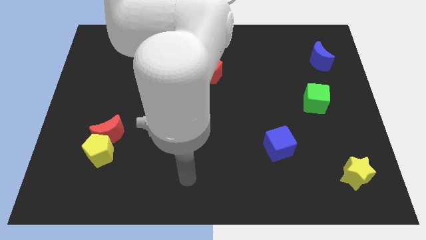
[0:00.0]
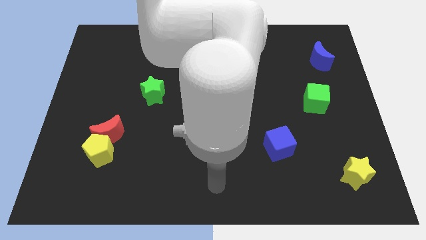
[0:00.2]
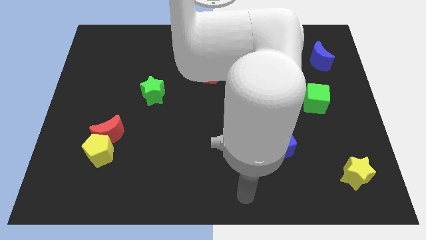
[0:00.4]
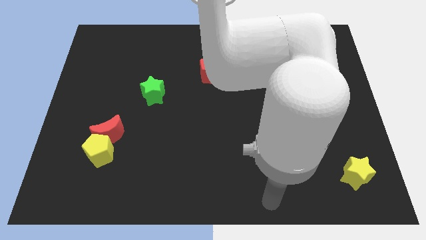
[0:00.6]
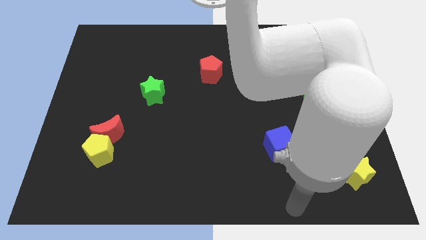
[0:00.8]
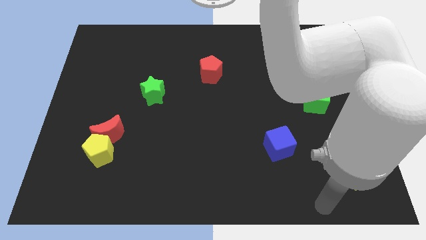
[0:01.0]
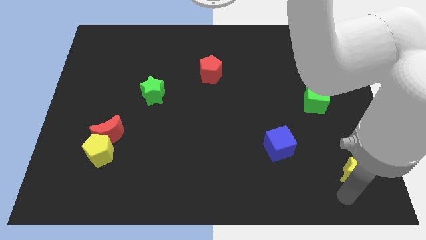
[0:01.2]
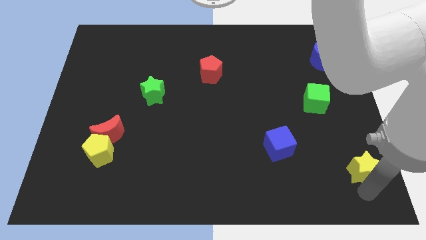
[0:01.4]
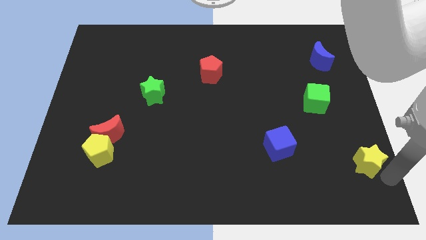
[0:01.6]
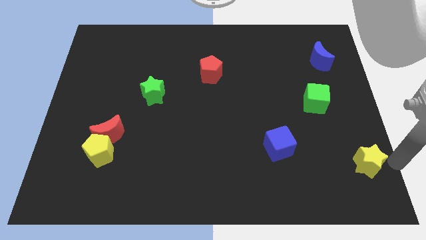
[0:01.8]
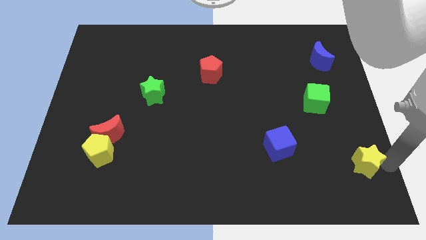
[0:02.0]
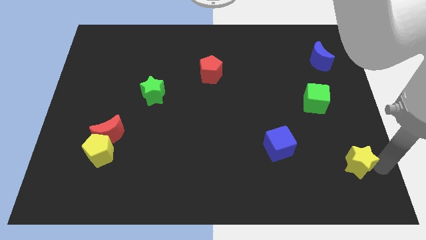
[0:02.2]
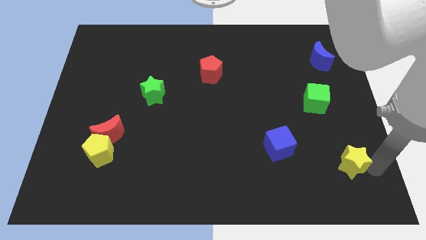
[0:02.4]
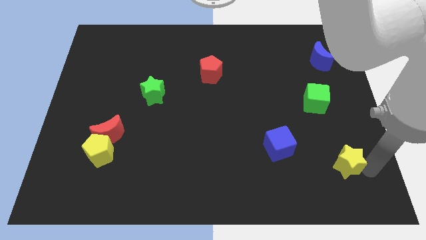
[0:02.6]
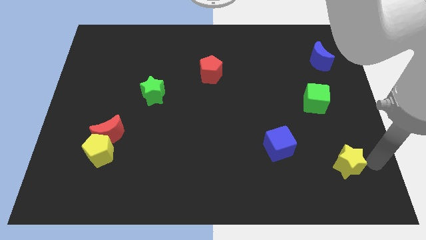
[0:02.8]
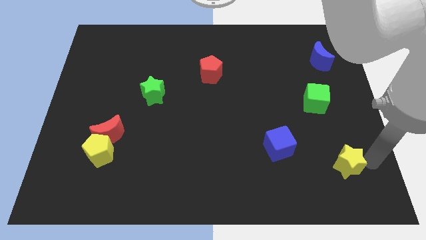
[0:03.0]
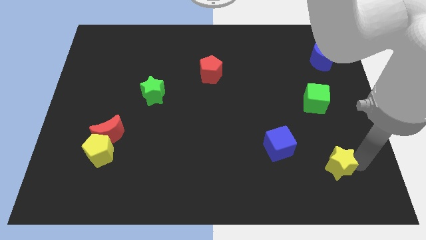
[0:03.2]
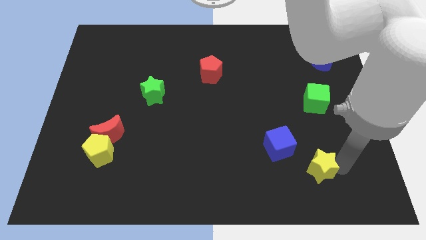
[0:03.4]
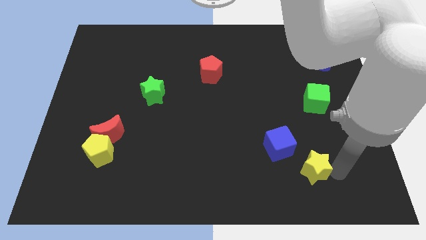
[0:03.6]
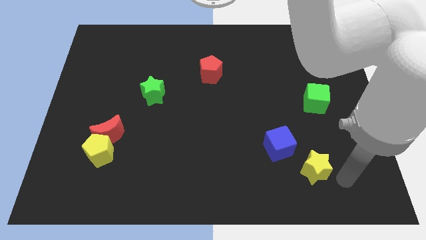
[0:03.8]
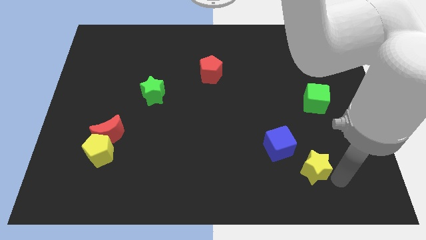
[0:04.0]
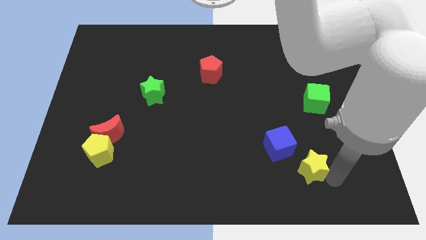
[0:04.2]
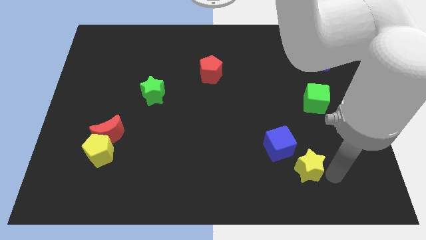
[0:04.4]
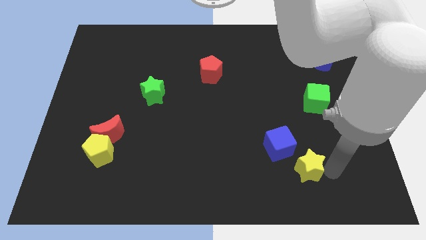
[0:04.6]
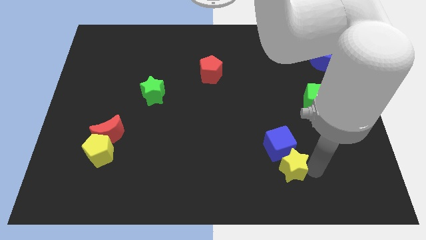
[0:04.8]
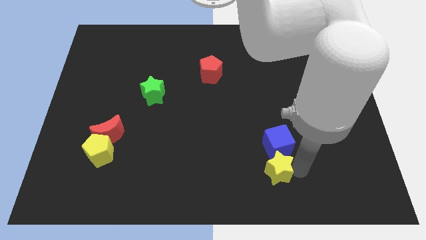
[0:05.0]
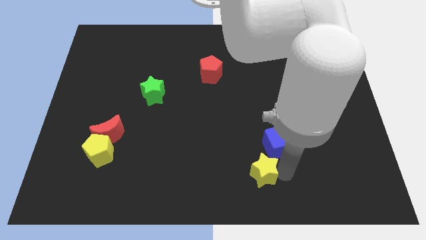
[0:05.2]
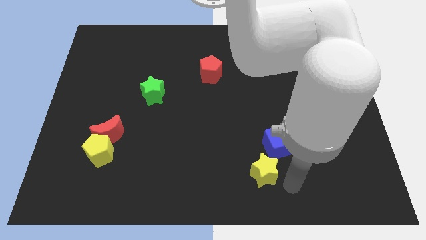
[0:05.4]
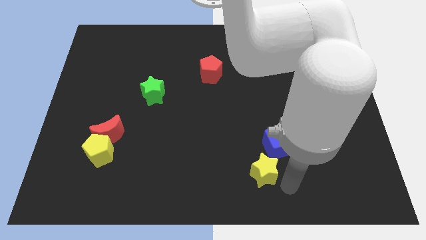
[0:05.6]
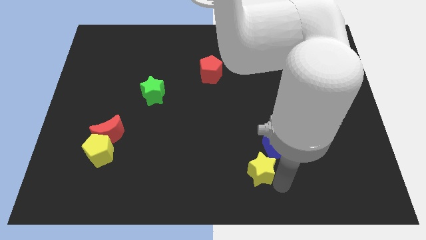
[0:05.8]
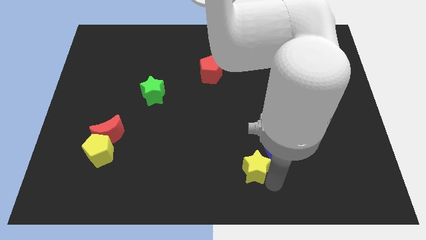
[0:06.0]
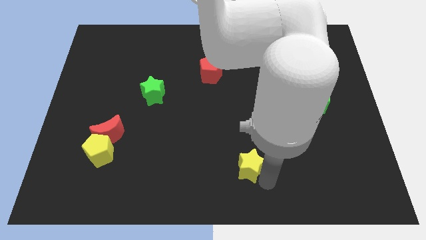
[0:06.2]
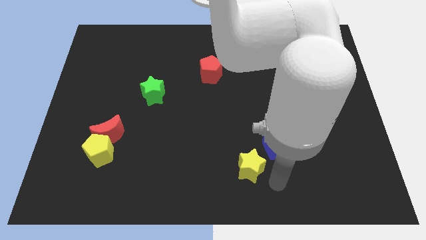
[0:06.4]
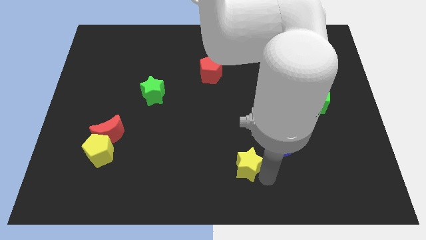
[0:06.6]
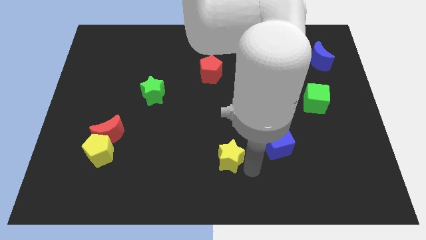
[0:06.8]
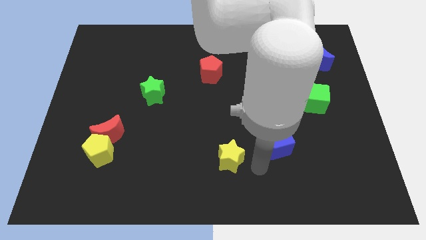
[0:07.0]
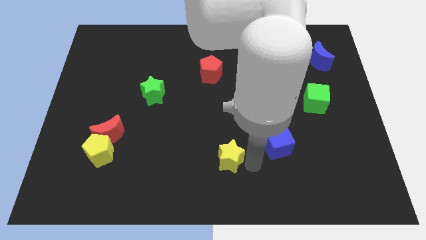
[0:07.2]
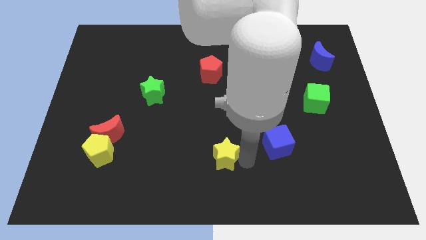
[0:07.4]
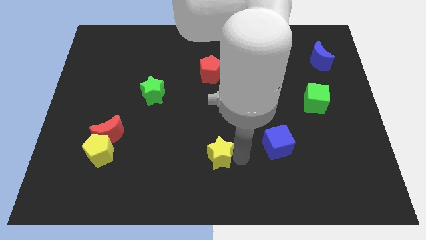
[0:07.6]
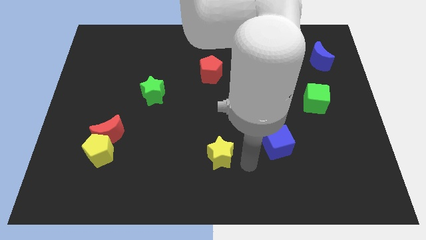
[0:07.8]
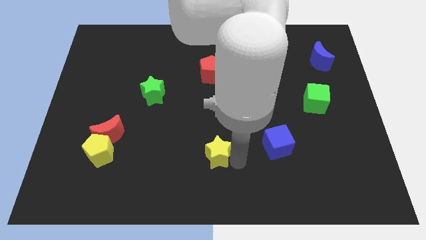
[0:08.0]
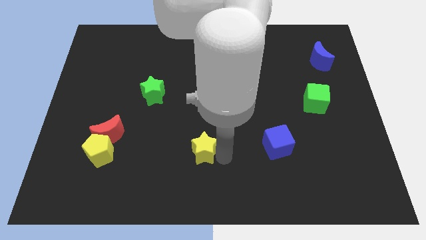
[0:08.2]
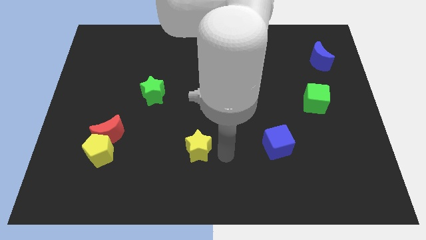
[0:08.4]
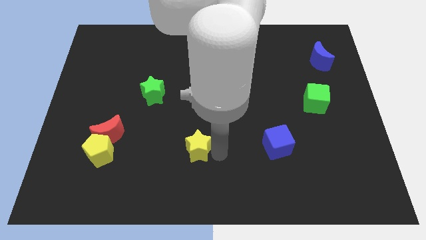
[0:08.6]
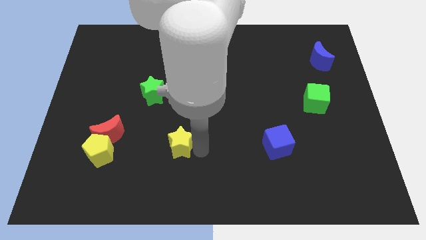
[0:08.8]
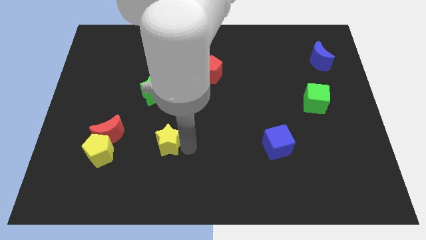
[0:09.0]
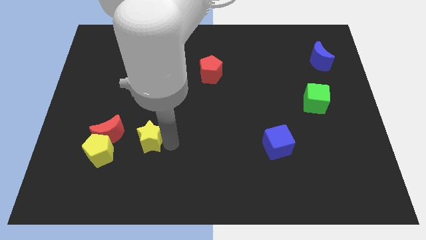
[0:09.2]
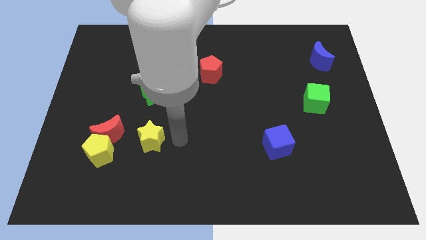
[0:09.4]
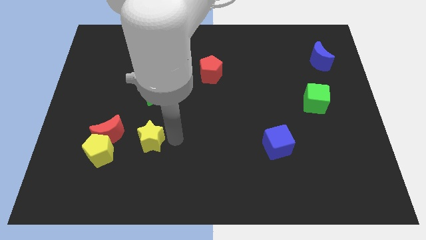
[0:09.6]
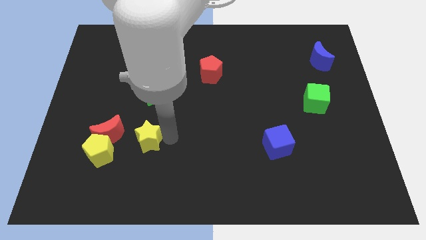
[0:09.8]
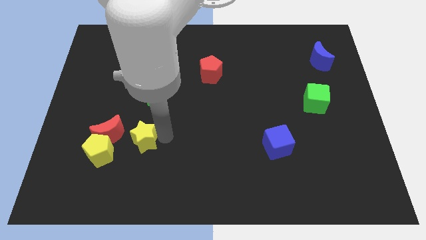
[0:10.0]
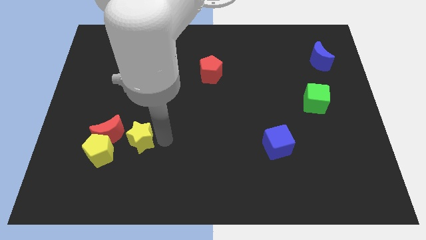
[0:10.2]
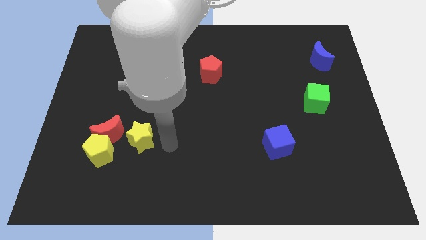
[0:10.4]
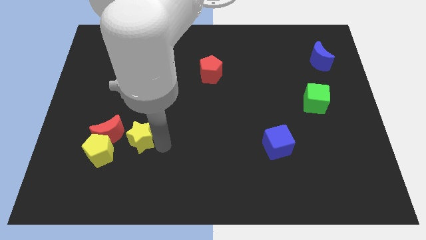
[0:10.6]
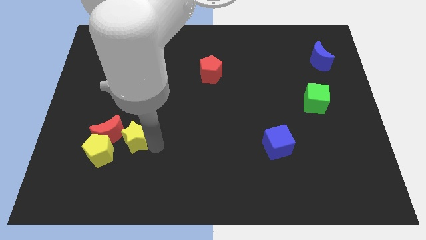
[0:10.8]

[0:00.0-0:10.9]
put the yellow star towards the red moon

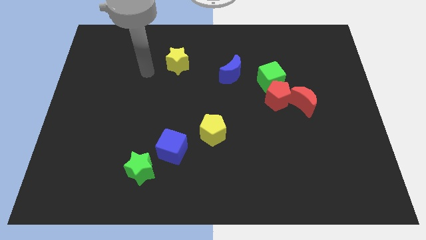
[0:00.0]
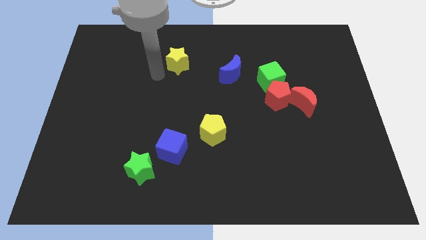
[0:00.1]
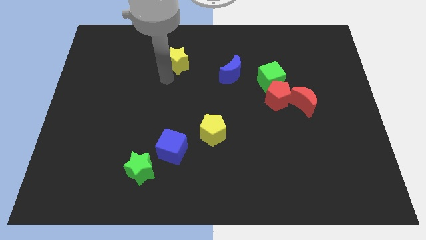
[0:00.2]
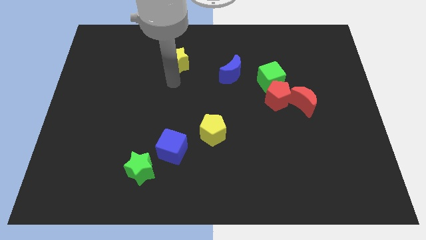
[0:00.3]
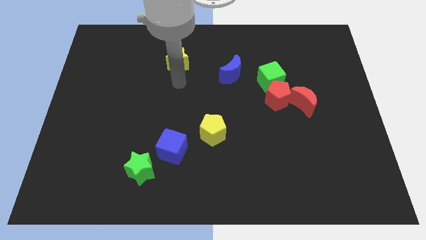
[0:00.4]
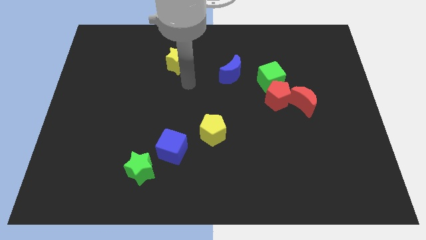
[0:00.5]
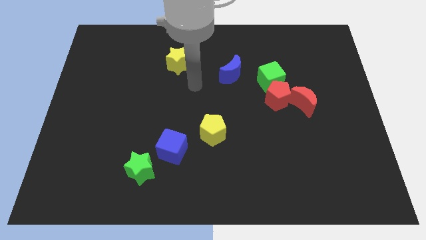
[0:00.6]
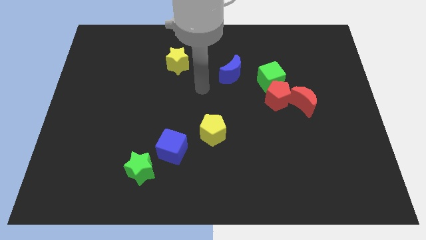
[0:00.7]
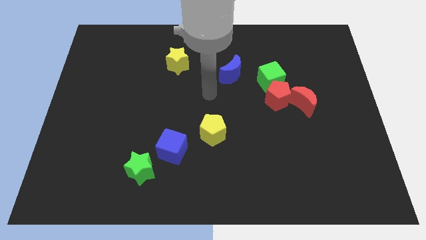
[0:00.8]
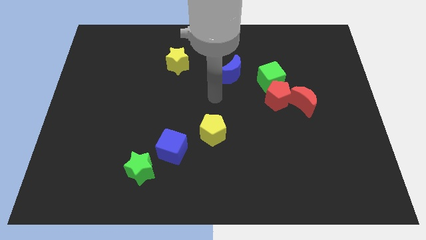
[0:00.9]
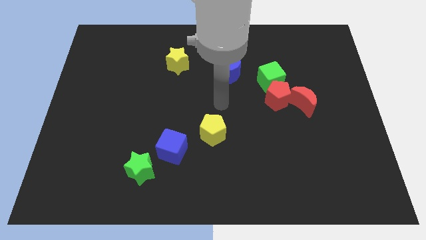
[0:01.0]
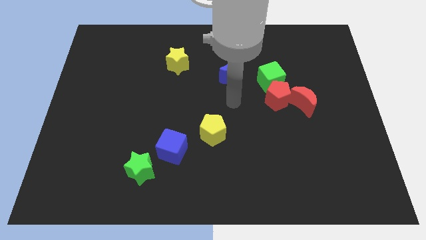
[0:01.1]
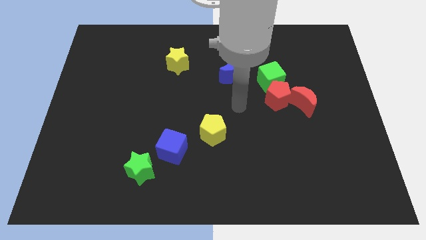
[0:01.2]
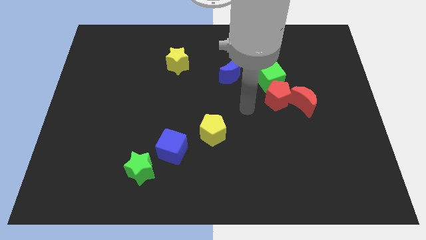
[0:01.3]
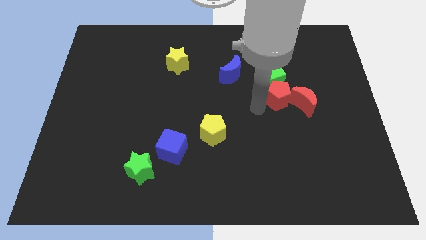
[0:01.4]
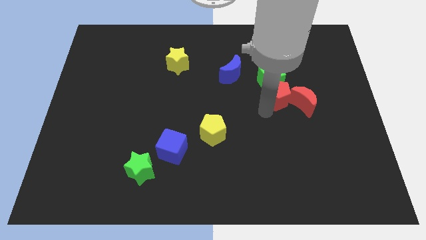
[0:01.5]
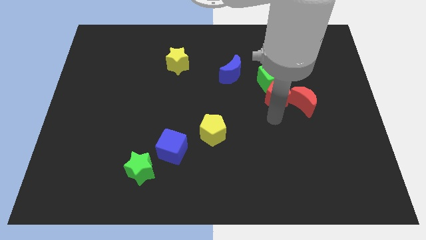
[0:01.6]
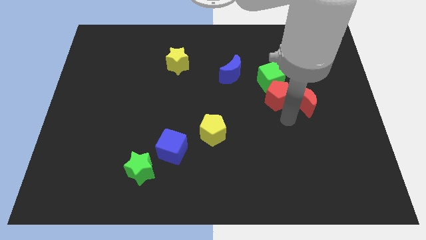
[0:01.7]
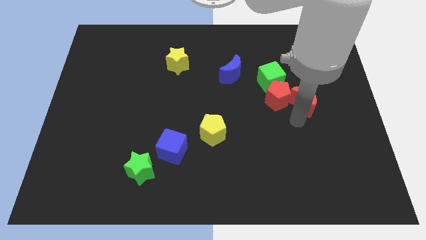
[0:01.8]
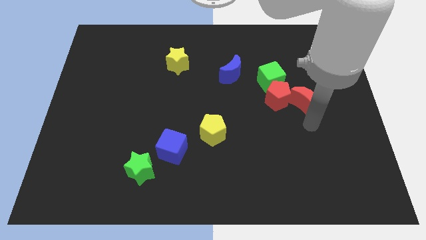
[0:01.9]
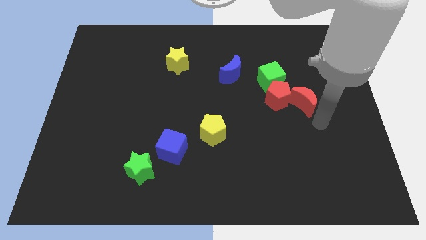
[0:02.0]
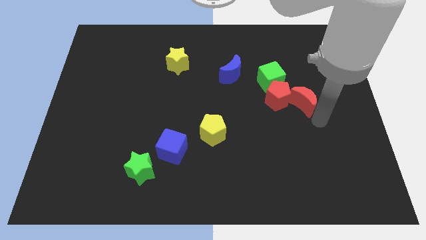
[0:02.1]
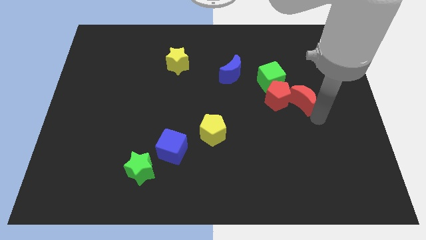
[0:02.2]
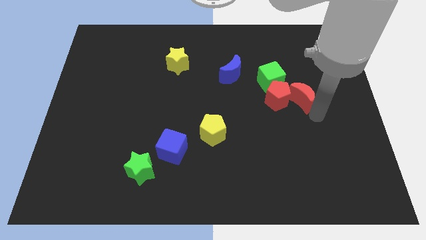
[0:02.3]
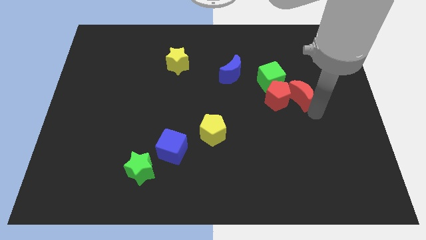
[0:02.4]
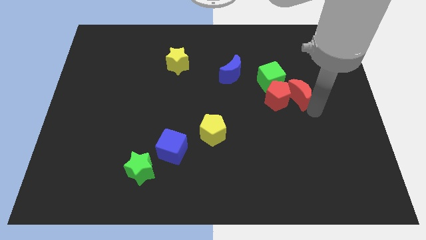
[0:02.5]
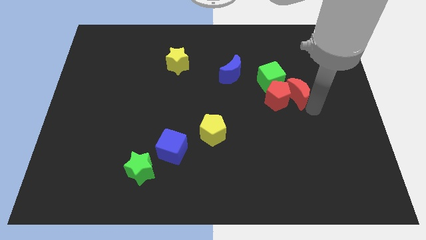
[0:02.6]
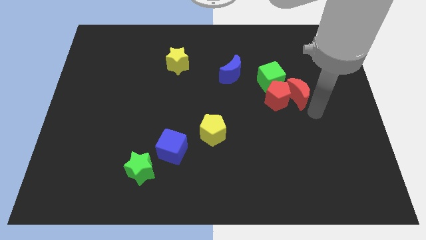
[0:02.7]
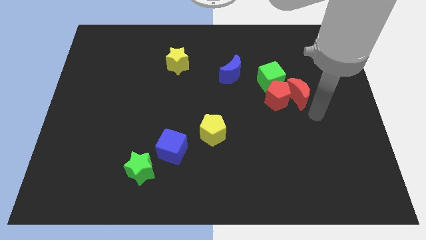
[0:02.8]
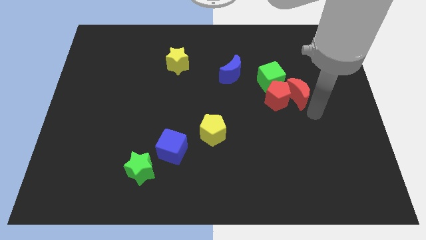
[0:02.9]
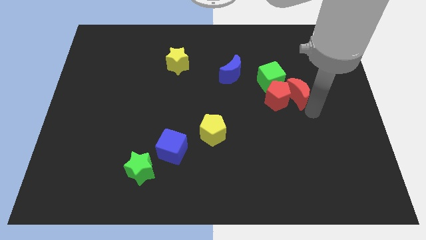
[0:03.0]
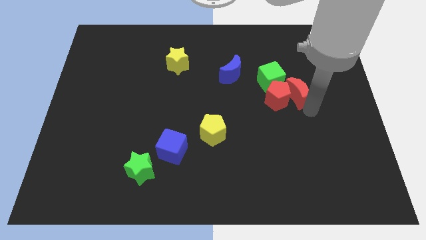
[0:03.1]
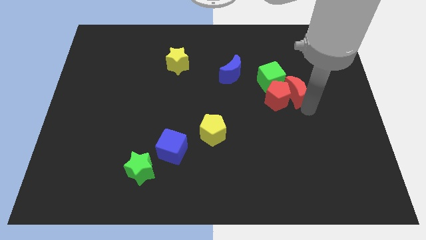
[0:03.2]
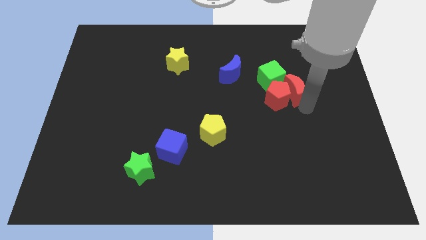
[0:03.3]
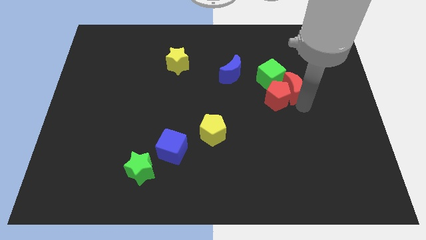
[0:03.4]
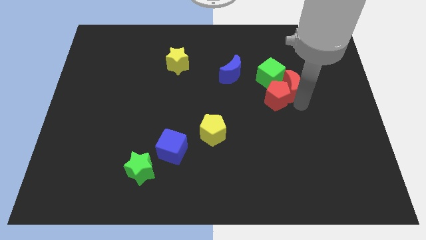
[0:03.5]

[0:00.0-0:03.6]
push the red moon close to the green cube
